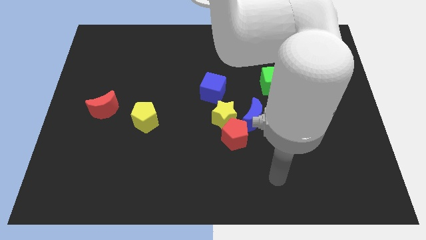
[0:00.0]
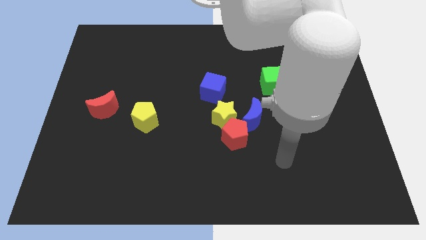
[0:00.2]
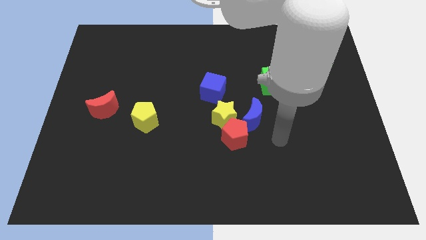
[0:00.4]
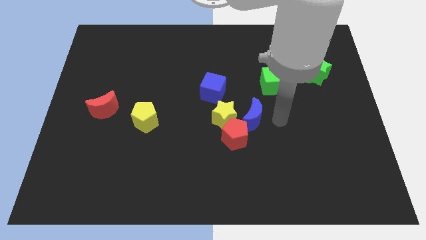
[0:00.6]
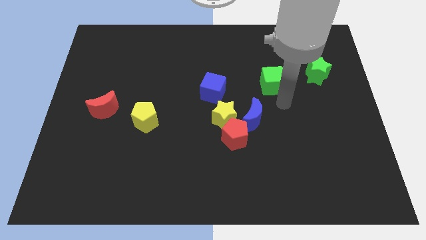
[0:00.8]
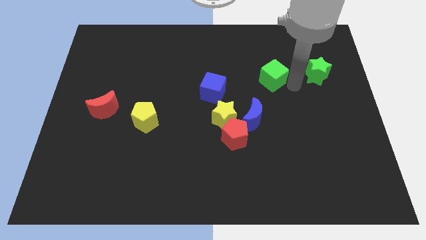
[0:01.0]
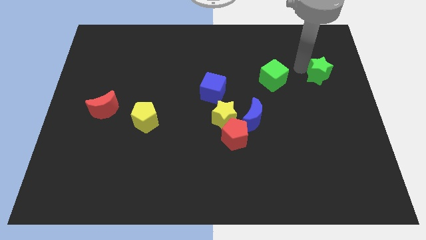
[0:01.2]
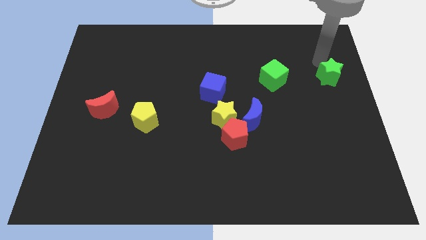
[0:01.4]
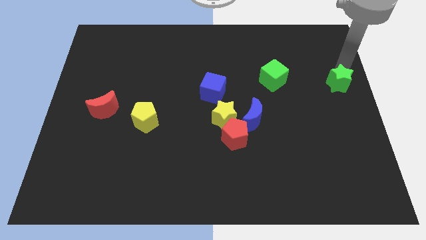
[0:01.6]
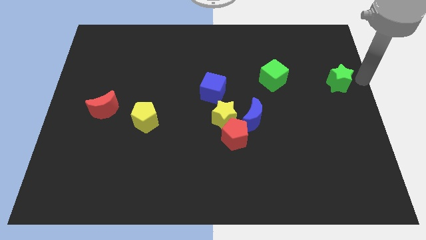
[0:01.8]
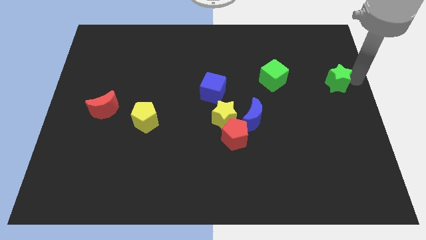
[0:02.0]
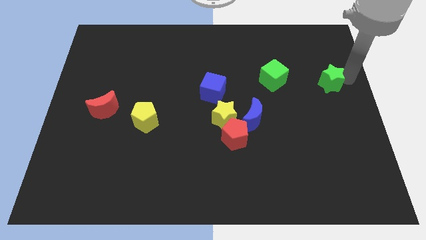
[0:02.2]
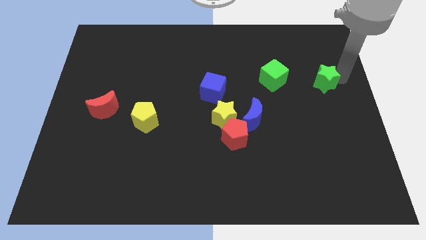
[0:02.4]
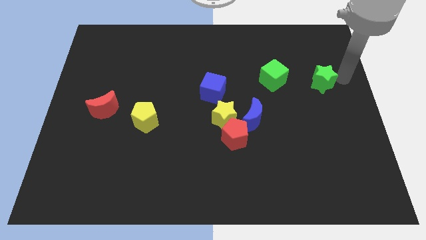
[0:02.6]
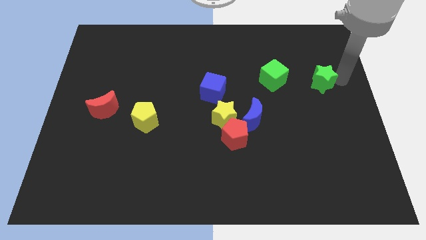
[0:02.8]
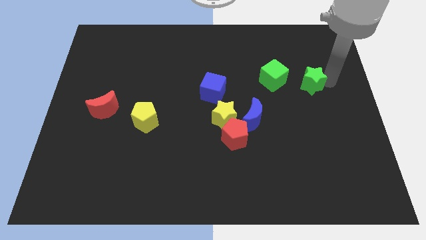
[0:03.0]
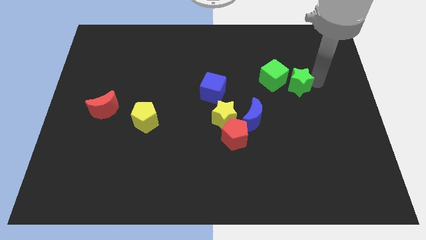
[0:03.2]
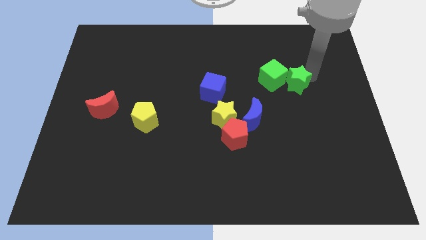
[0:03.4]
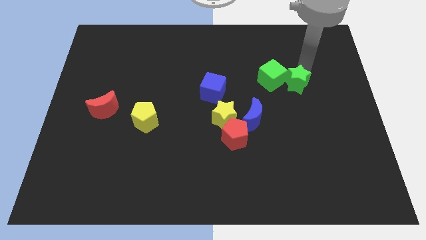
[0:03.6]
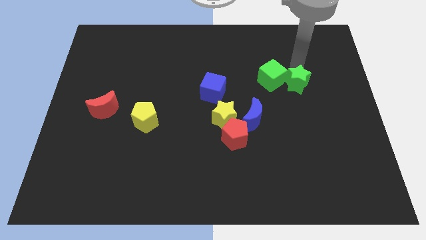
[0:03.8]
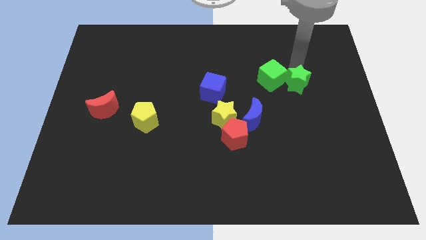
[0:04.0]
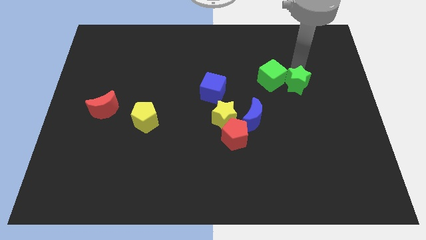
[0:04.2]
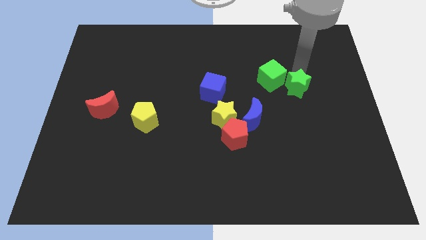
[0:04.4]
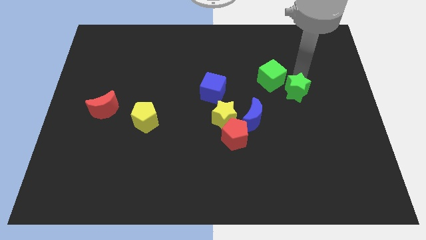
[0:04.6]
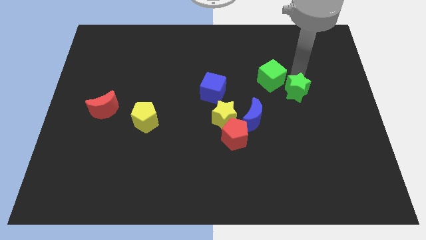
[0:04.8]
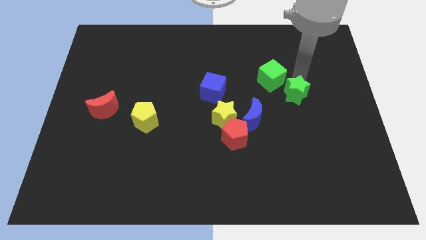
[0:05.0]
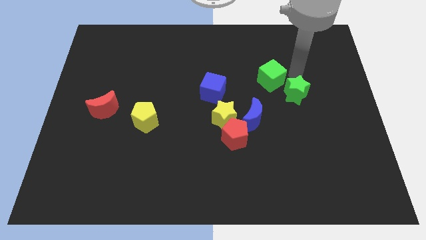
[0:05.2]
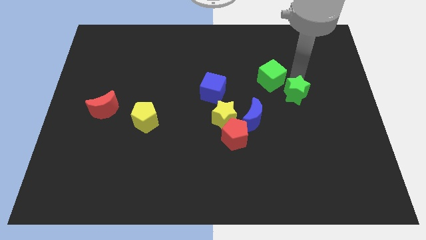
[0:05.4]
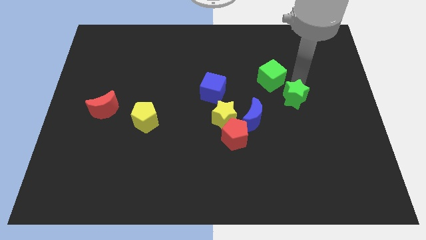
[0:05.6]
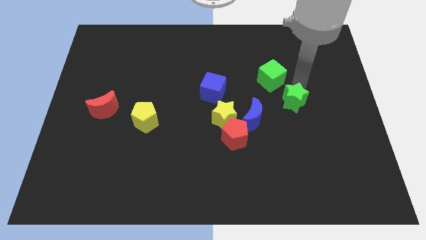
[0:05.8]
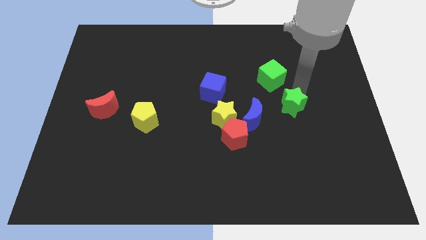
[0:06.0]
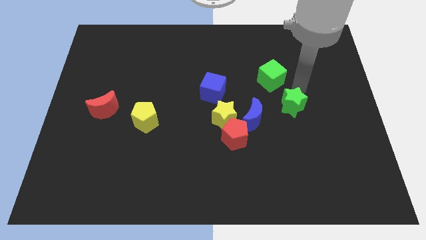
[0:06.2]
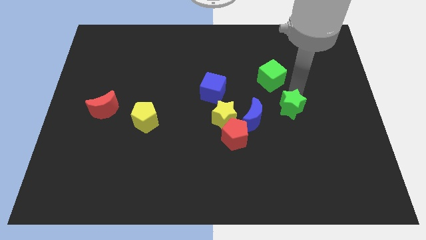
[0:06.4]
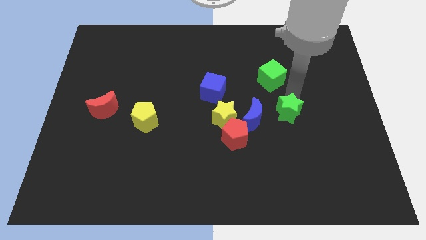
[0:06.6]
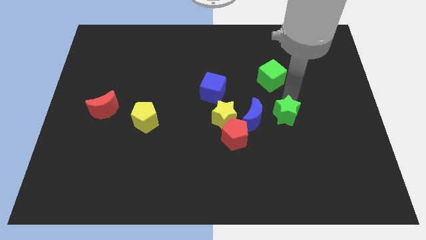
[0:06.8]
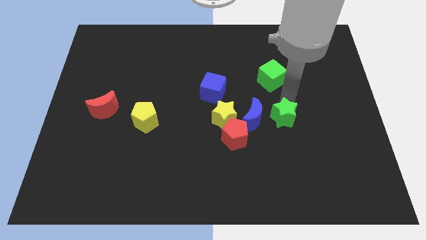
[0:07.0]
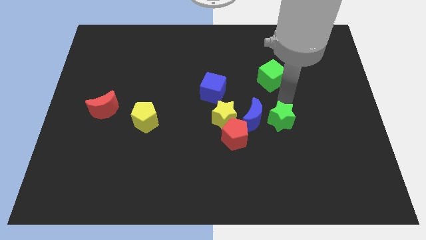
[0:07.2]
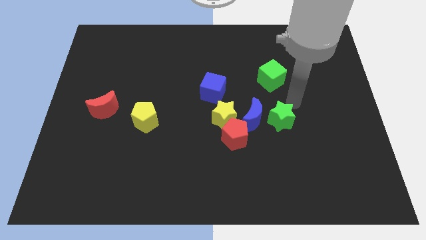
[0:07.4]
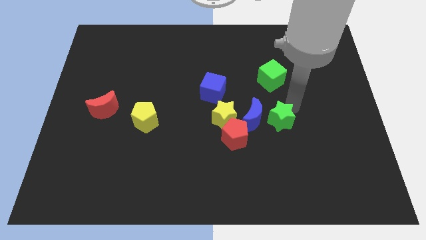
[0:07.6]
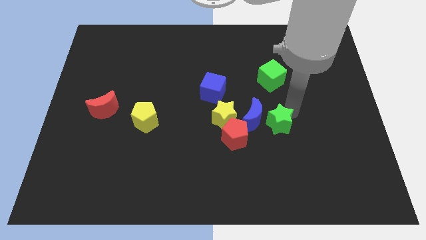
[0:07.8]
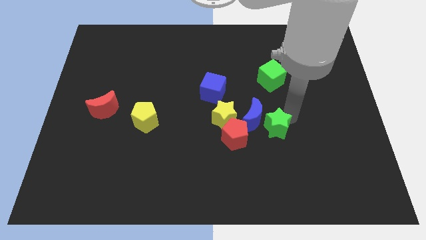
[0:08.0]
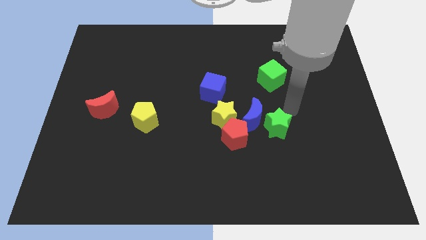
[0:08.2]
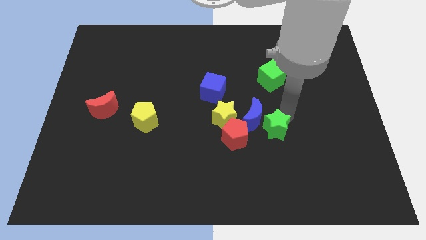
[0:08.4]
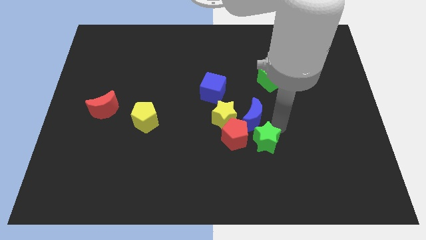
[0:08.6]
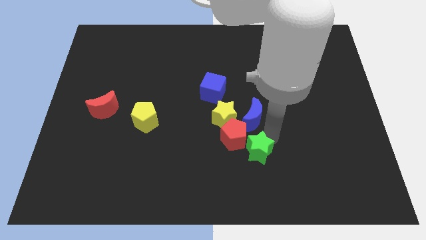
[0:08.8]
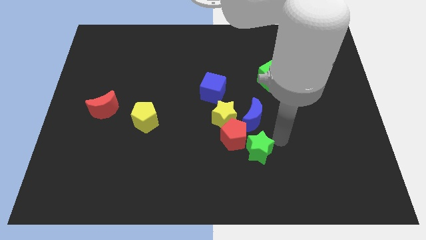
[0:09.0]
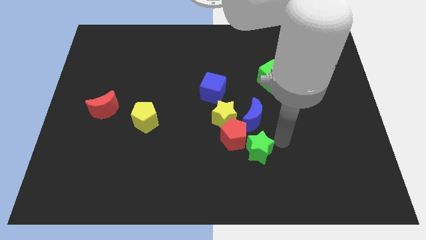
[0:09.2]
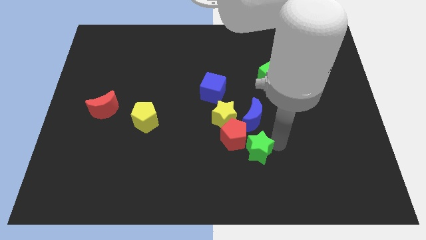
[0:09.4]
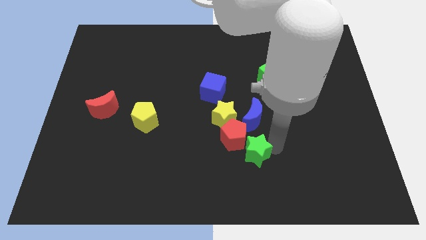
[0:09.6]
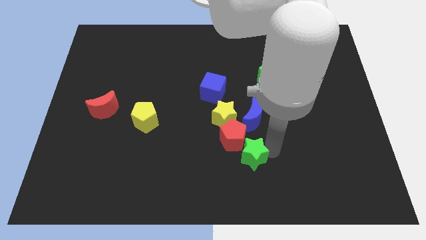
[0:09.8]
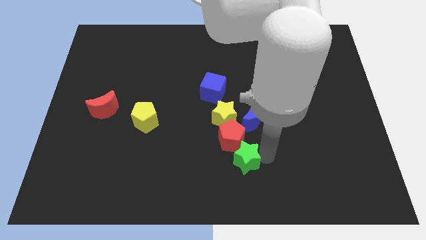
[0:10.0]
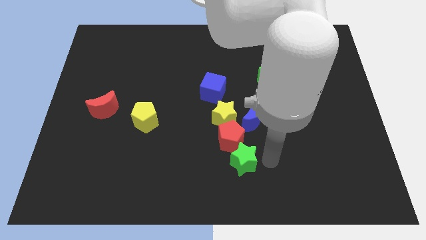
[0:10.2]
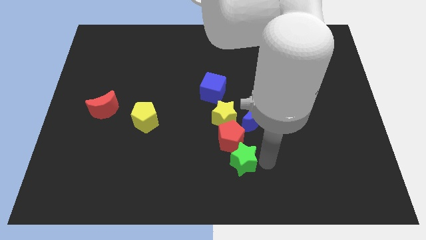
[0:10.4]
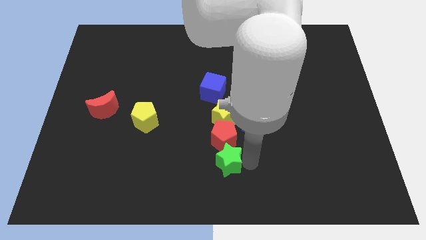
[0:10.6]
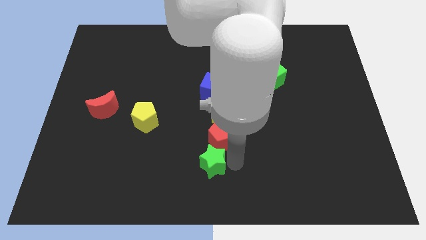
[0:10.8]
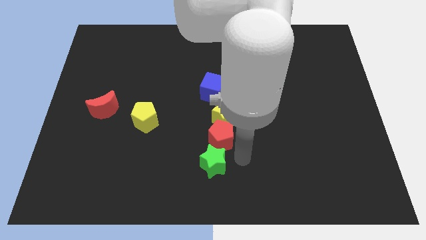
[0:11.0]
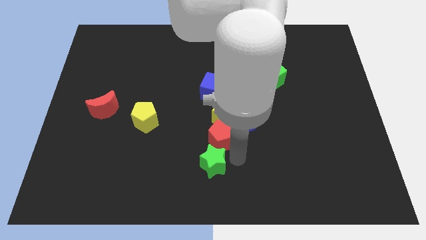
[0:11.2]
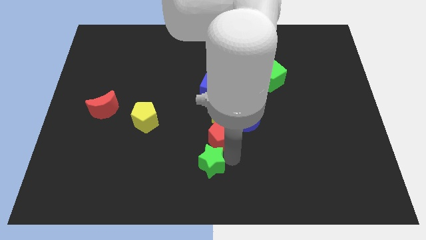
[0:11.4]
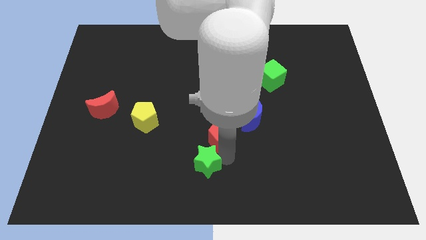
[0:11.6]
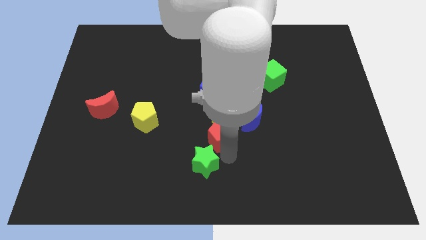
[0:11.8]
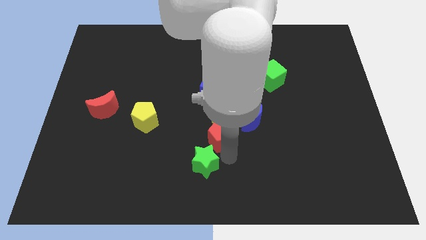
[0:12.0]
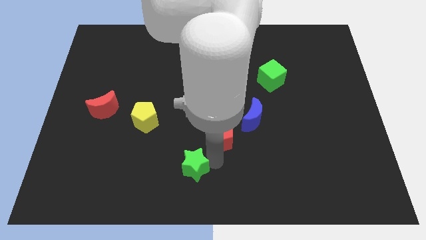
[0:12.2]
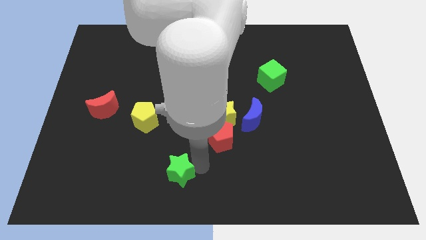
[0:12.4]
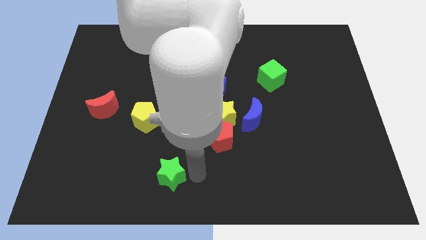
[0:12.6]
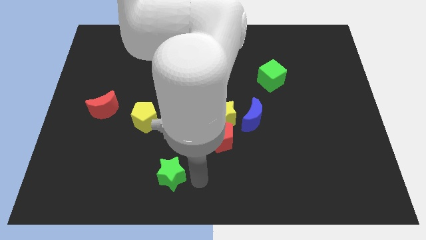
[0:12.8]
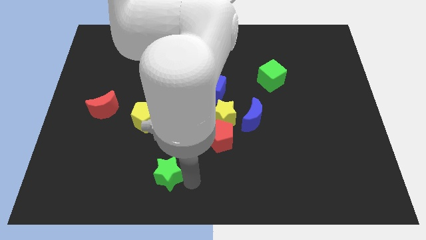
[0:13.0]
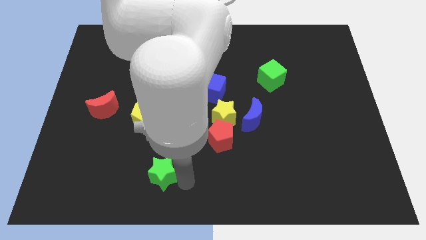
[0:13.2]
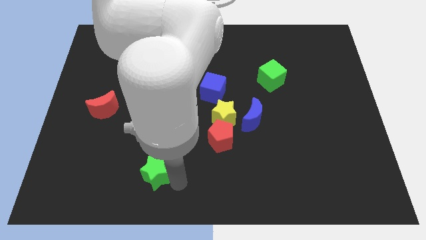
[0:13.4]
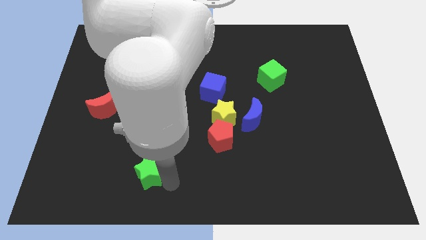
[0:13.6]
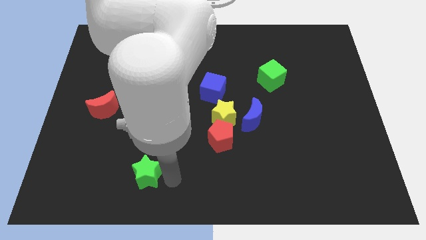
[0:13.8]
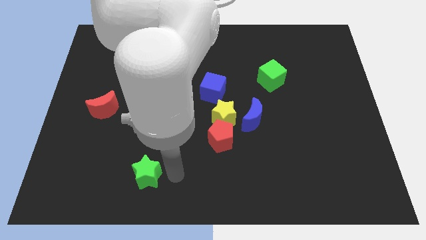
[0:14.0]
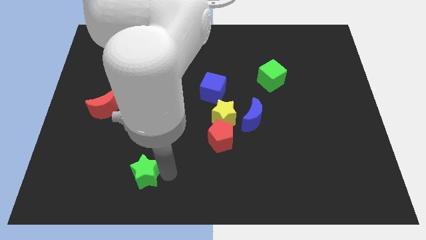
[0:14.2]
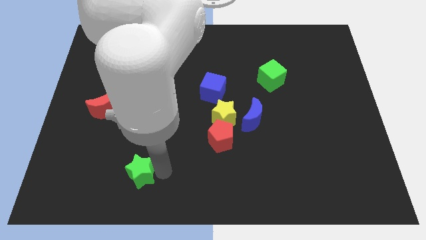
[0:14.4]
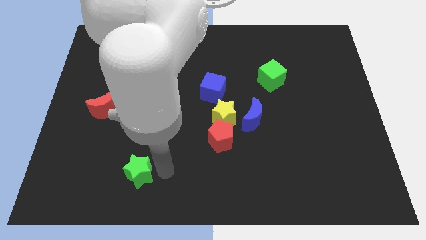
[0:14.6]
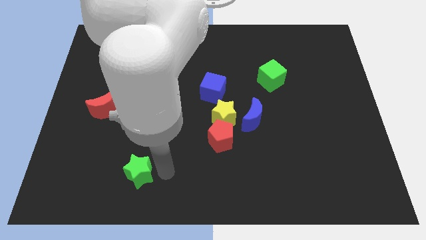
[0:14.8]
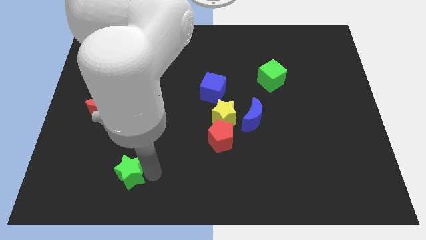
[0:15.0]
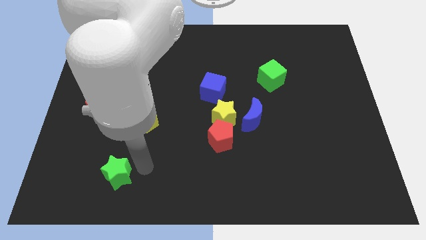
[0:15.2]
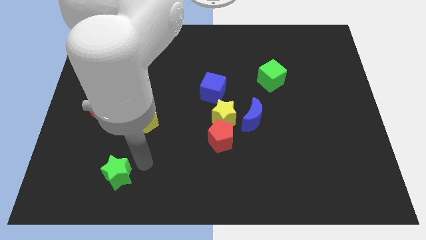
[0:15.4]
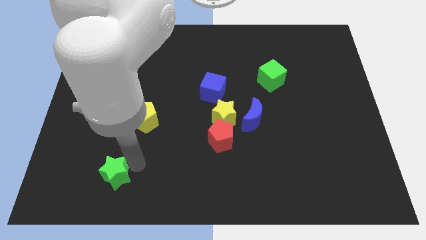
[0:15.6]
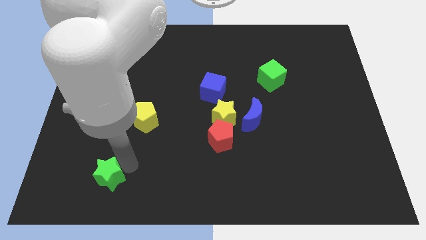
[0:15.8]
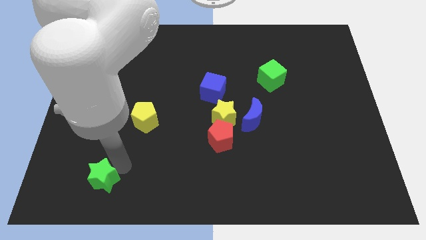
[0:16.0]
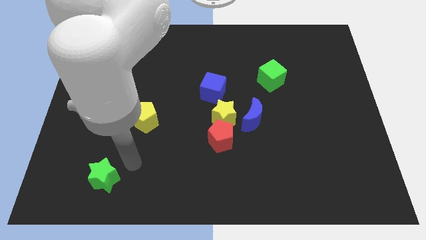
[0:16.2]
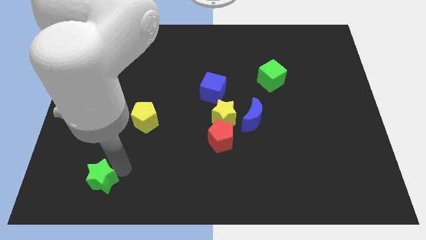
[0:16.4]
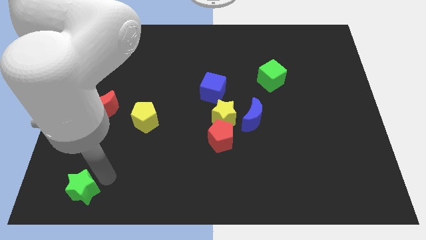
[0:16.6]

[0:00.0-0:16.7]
move the green star to the bottom left of the board
